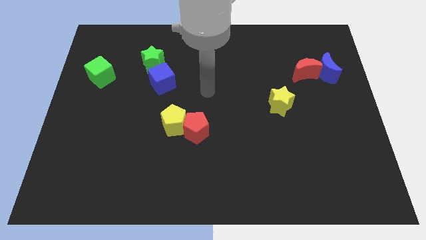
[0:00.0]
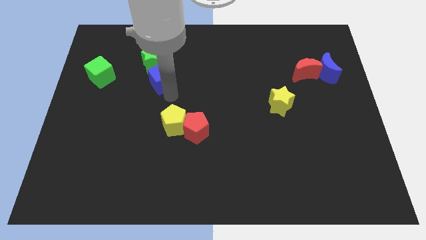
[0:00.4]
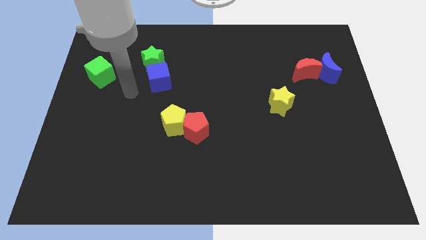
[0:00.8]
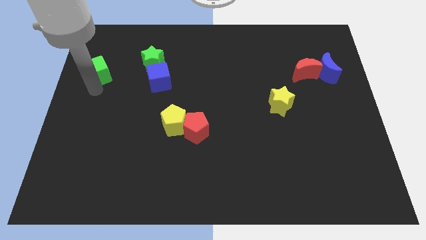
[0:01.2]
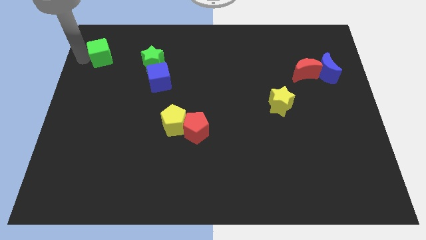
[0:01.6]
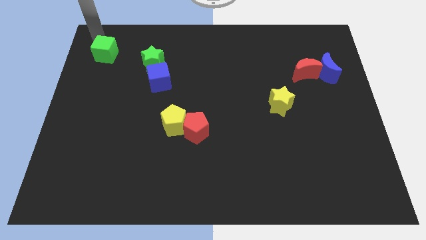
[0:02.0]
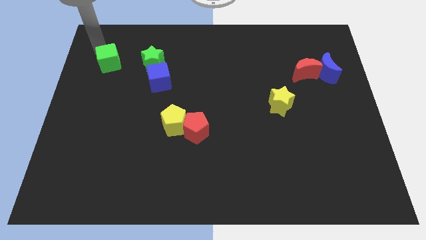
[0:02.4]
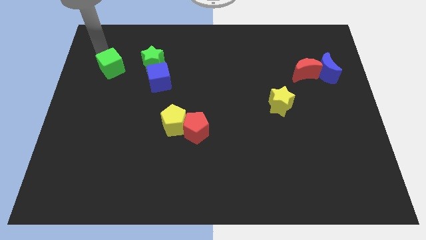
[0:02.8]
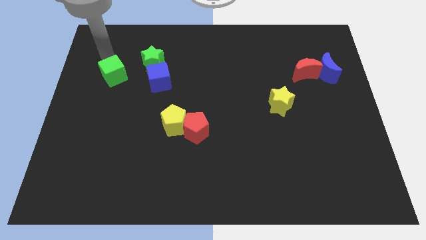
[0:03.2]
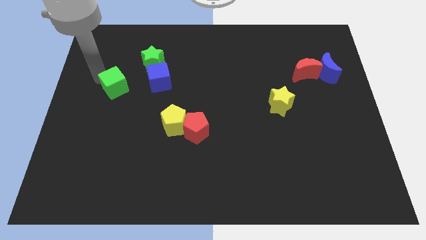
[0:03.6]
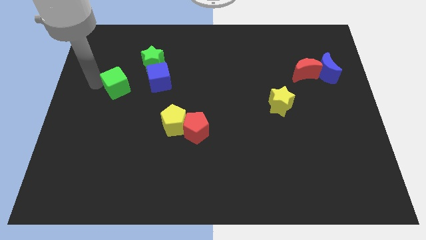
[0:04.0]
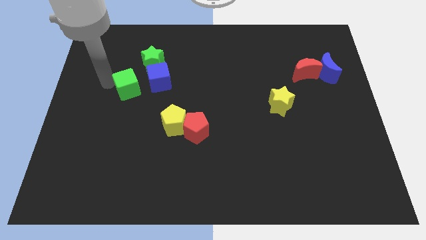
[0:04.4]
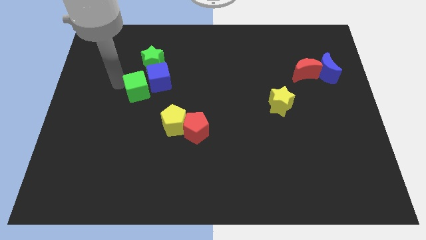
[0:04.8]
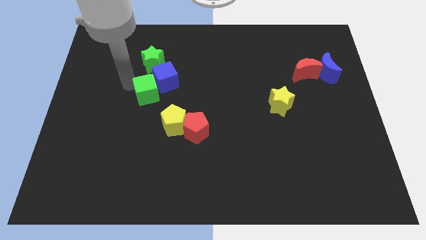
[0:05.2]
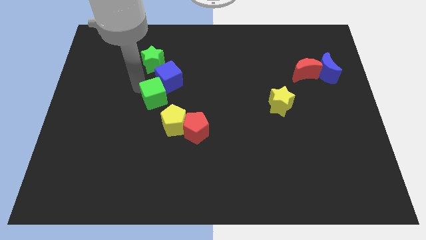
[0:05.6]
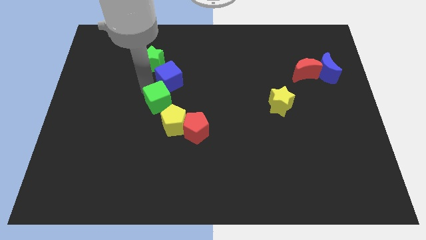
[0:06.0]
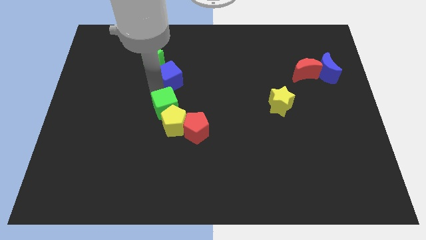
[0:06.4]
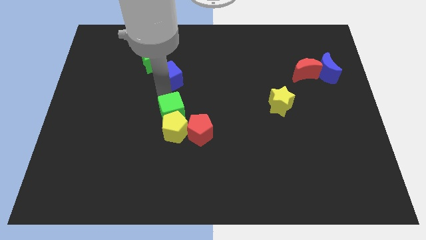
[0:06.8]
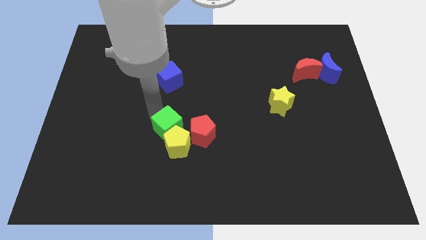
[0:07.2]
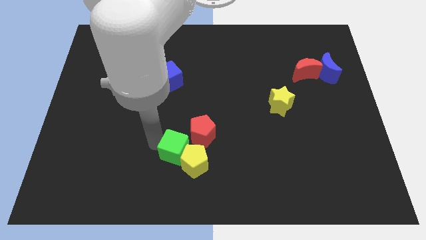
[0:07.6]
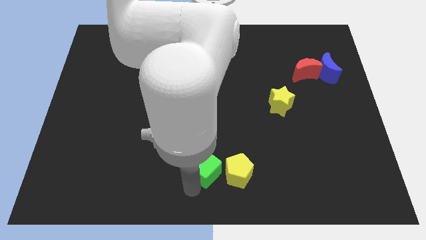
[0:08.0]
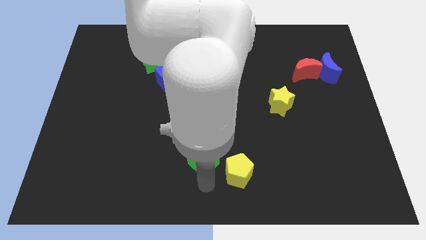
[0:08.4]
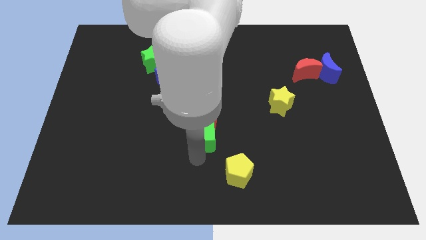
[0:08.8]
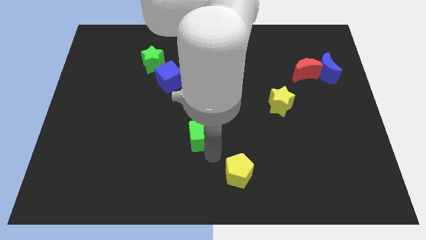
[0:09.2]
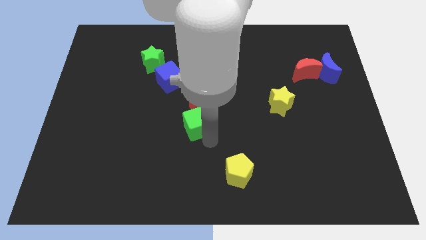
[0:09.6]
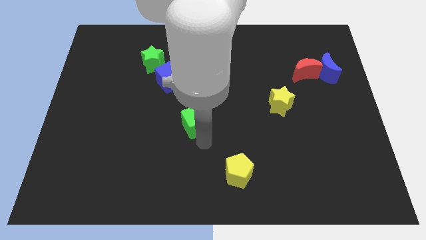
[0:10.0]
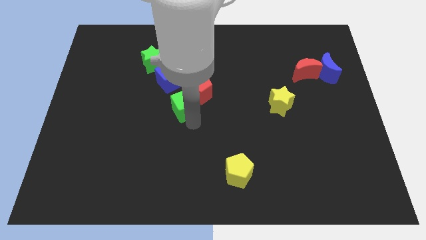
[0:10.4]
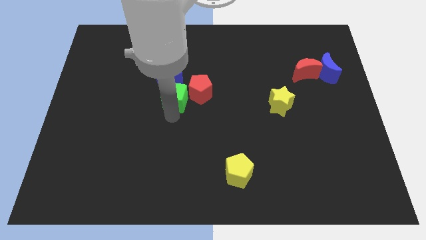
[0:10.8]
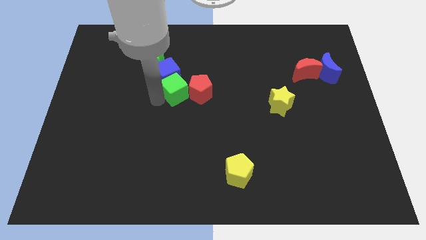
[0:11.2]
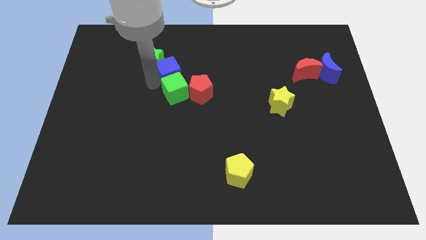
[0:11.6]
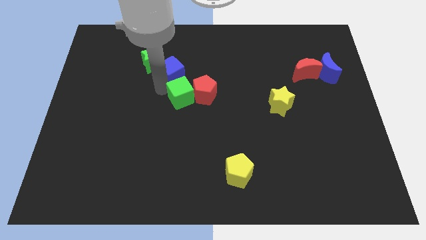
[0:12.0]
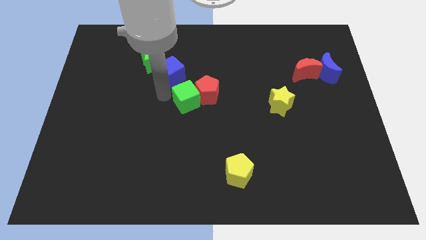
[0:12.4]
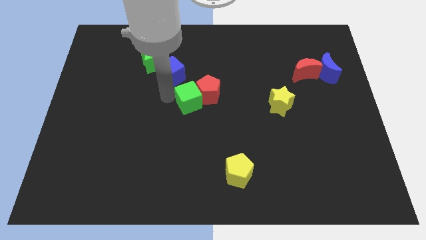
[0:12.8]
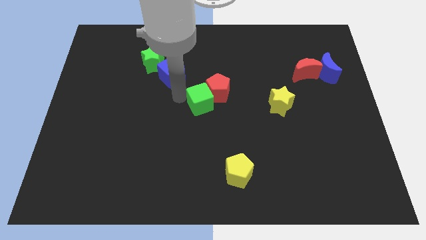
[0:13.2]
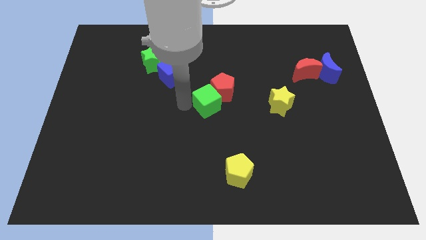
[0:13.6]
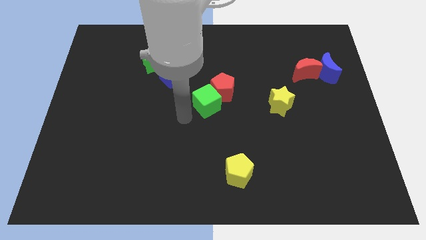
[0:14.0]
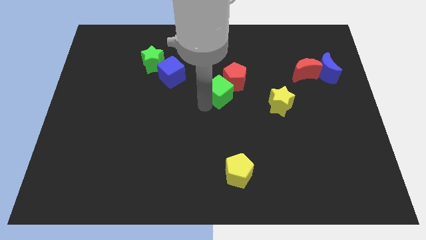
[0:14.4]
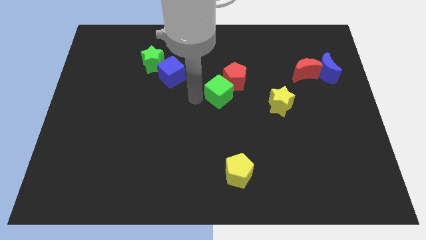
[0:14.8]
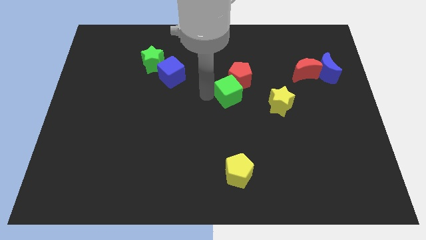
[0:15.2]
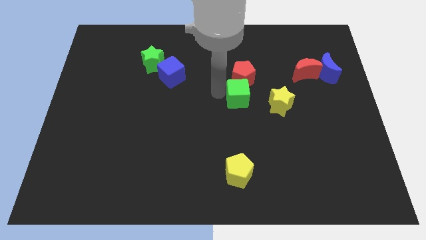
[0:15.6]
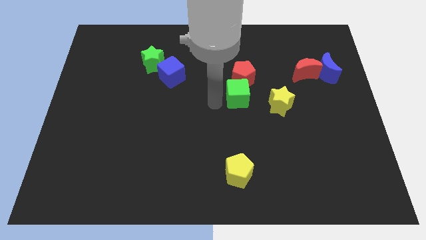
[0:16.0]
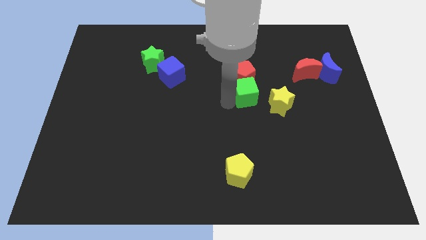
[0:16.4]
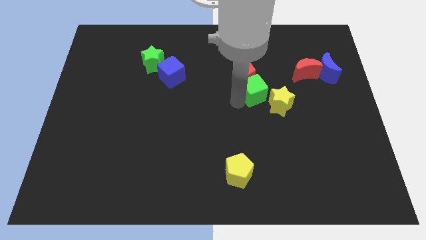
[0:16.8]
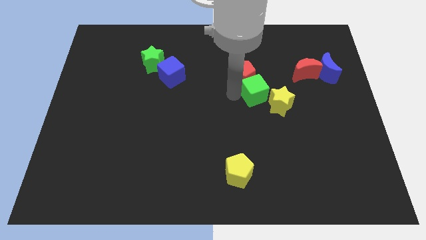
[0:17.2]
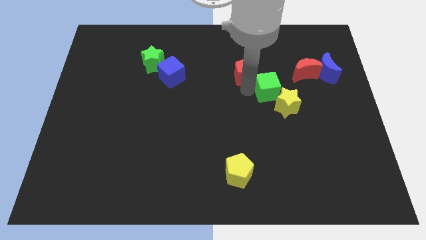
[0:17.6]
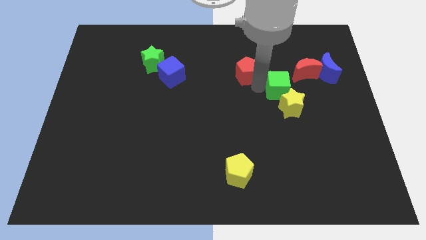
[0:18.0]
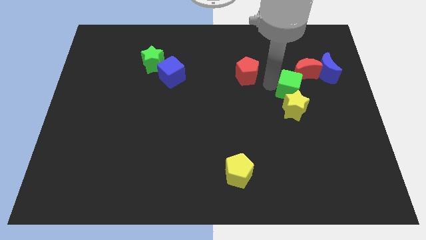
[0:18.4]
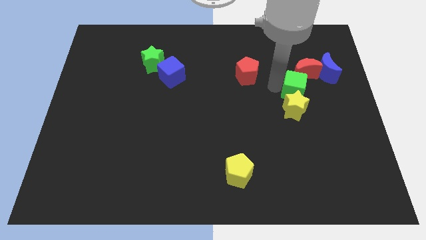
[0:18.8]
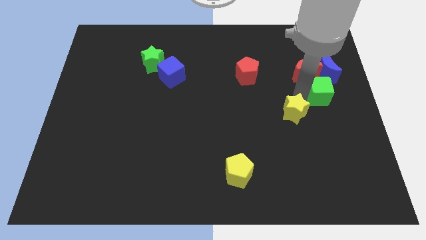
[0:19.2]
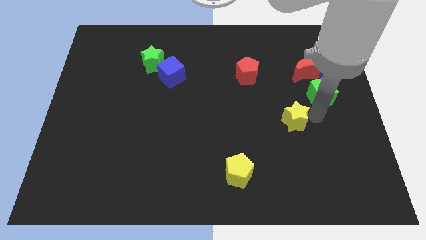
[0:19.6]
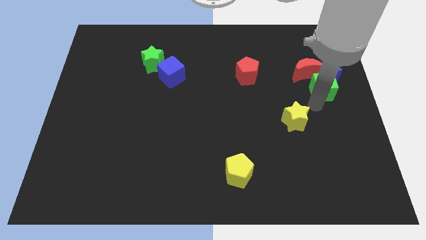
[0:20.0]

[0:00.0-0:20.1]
move the green cube towards the blue moon

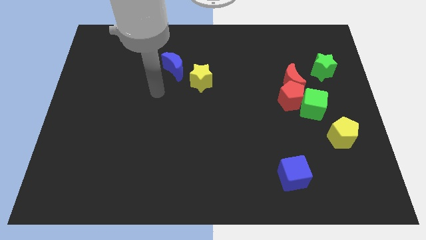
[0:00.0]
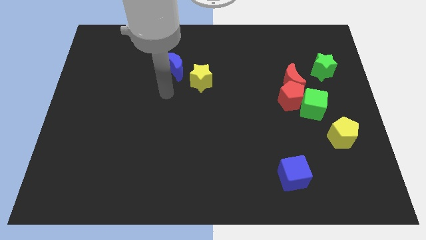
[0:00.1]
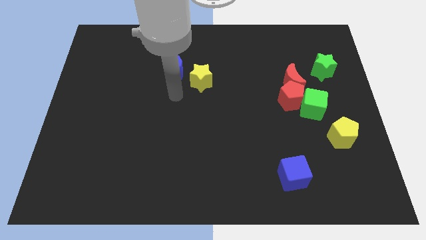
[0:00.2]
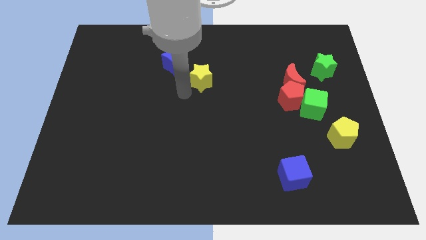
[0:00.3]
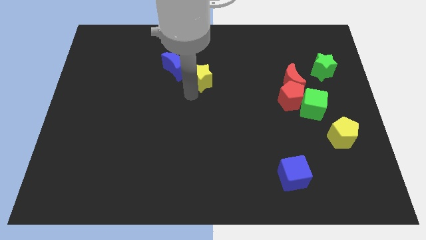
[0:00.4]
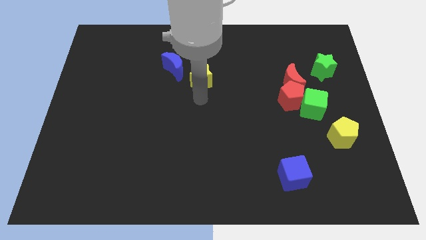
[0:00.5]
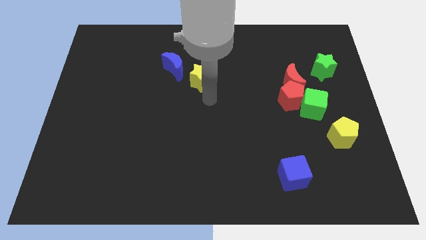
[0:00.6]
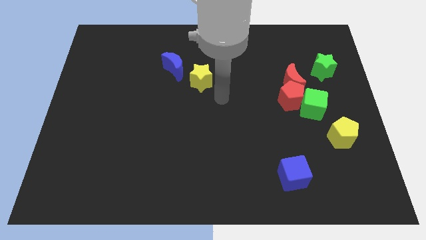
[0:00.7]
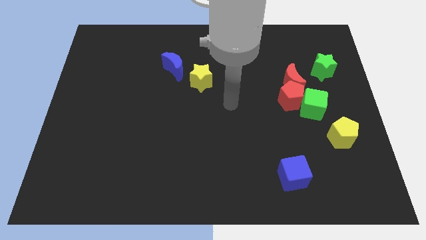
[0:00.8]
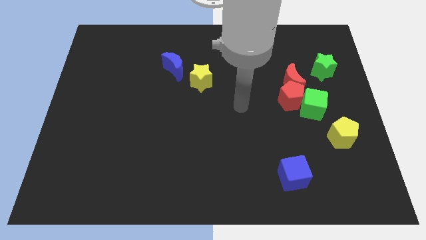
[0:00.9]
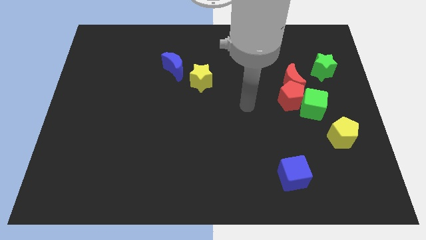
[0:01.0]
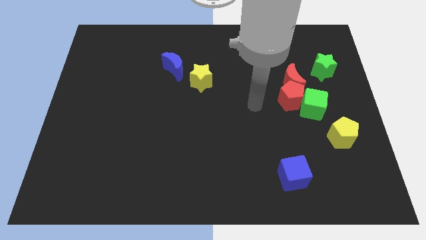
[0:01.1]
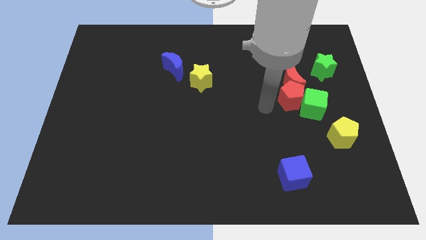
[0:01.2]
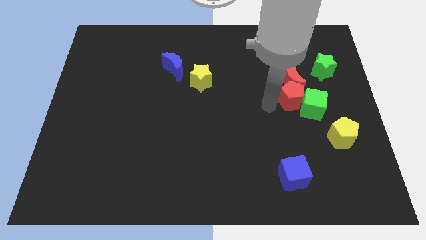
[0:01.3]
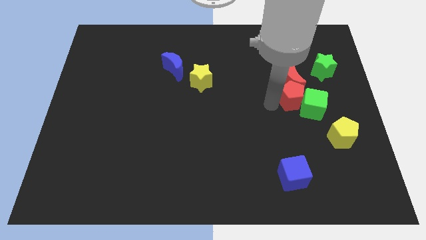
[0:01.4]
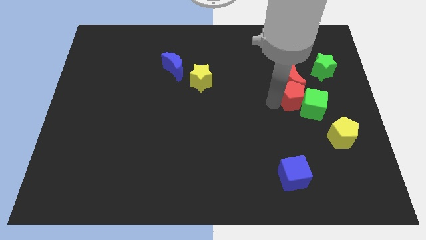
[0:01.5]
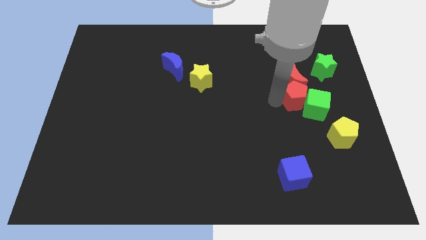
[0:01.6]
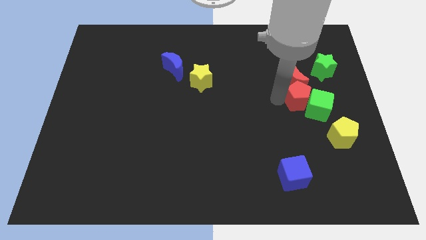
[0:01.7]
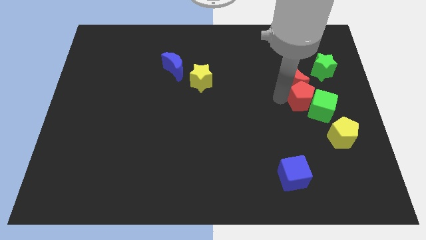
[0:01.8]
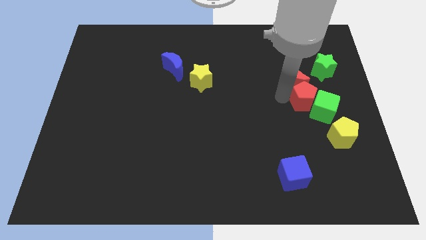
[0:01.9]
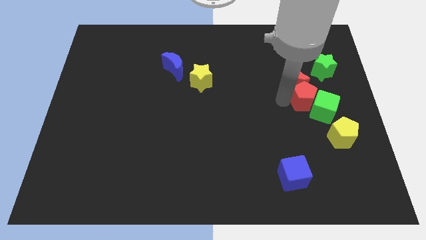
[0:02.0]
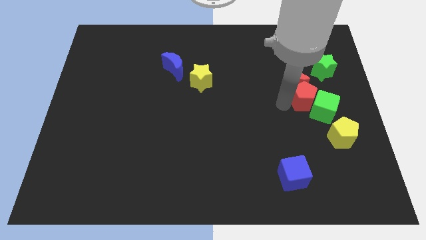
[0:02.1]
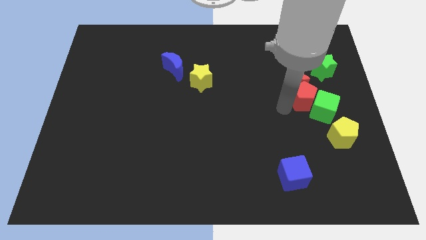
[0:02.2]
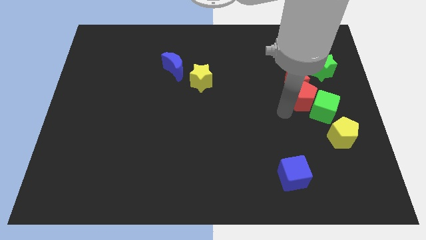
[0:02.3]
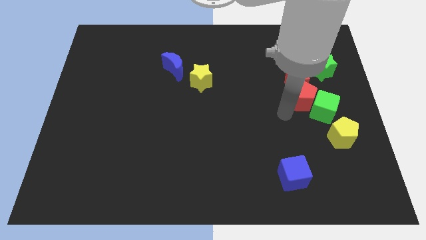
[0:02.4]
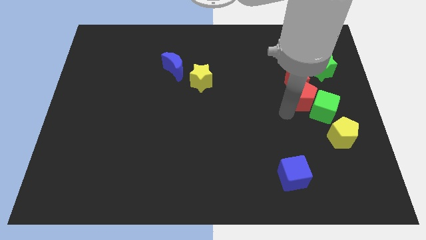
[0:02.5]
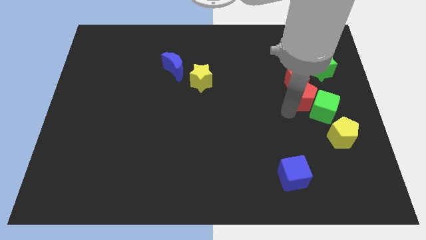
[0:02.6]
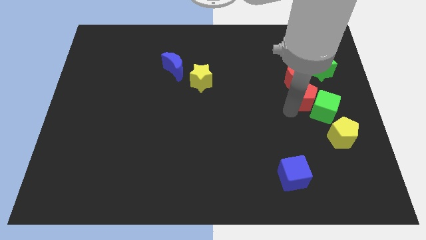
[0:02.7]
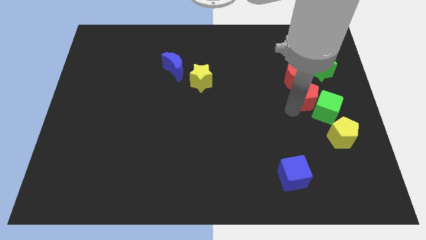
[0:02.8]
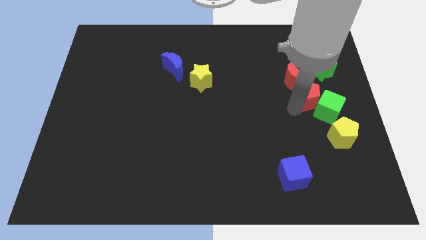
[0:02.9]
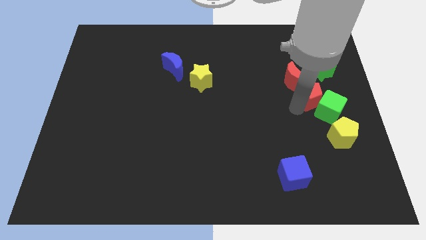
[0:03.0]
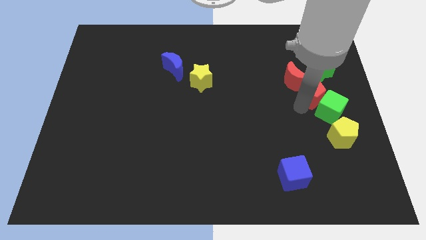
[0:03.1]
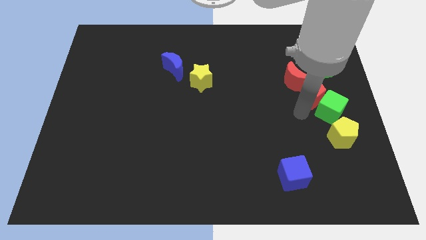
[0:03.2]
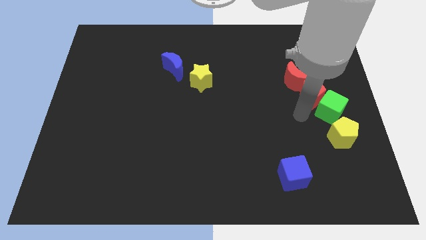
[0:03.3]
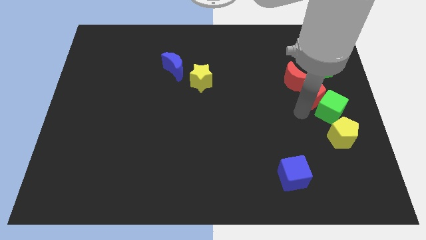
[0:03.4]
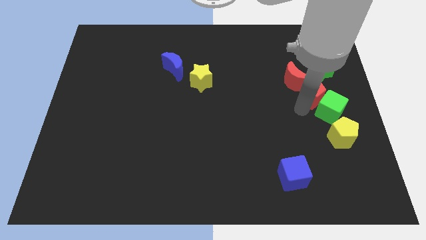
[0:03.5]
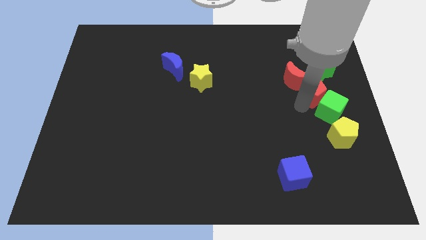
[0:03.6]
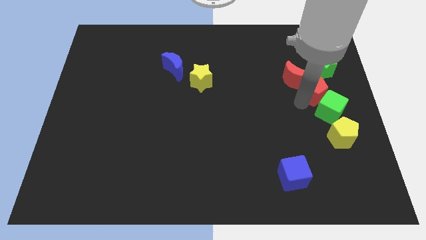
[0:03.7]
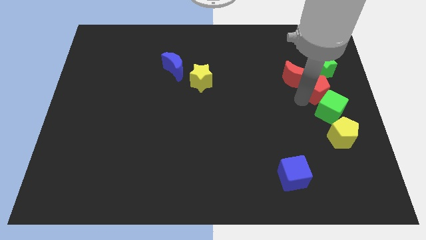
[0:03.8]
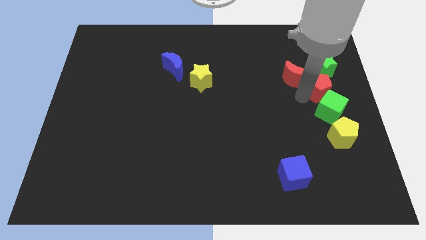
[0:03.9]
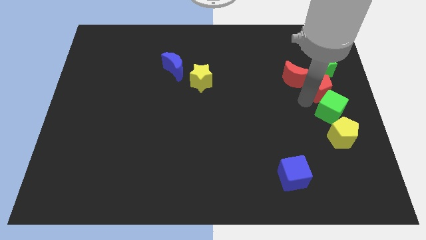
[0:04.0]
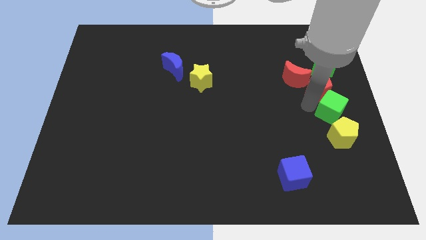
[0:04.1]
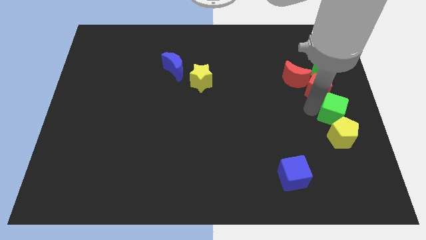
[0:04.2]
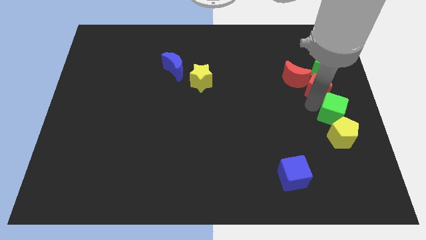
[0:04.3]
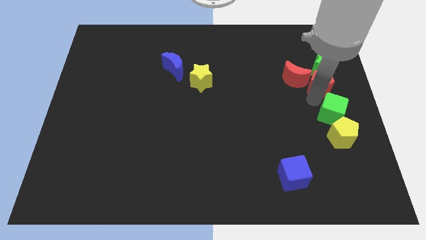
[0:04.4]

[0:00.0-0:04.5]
push the red pentagon to the green star
